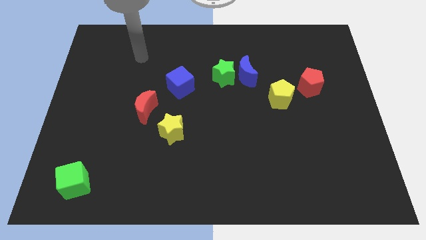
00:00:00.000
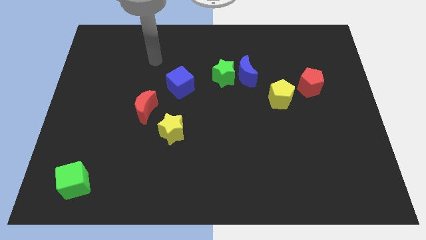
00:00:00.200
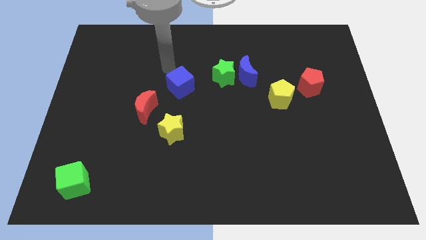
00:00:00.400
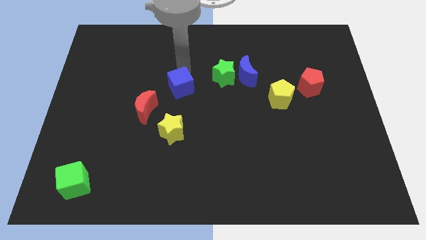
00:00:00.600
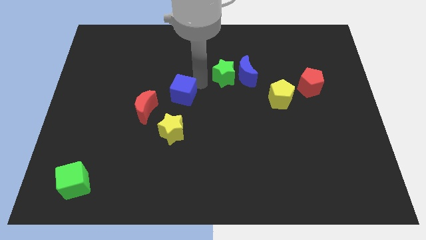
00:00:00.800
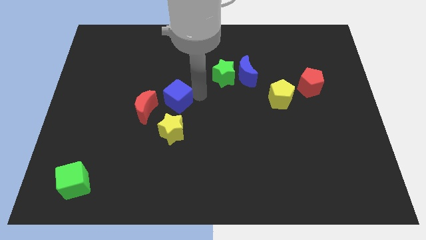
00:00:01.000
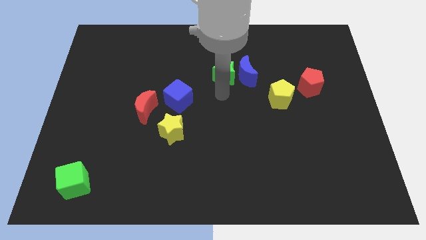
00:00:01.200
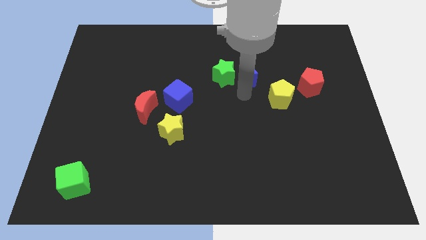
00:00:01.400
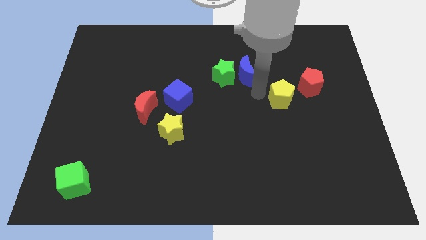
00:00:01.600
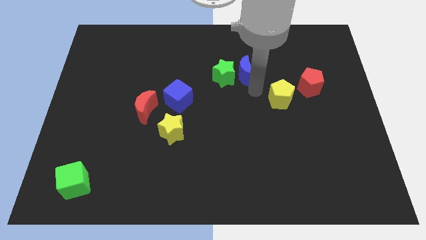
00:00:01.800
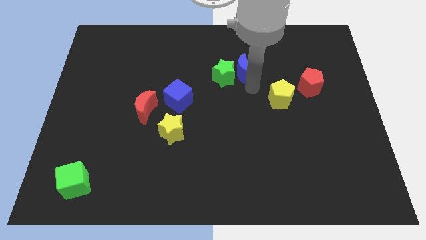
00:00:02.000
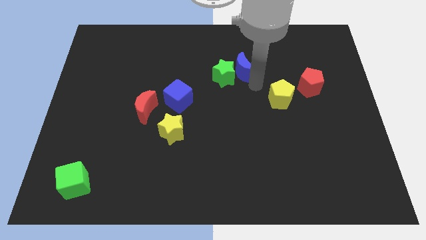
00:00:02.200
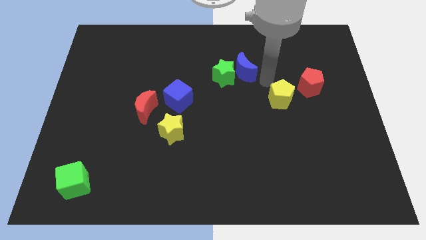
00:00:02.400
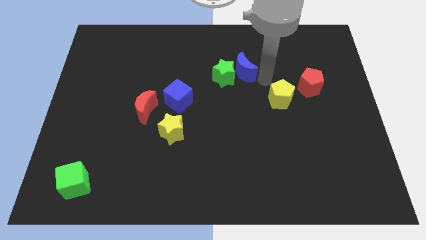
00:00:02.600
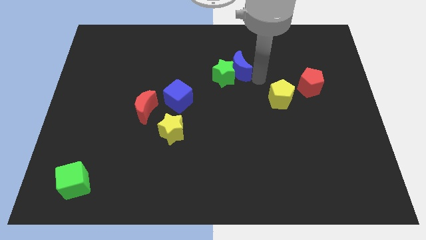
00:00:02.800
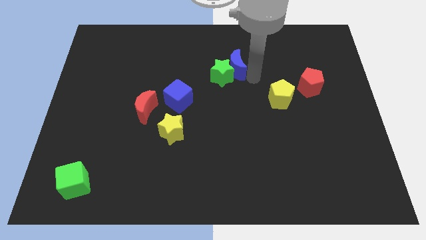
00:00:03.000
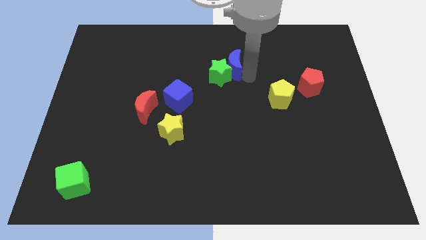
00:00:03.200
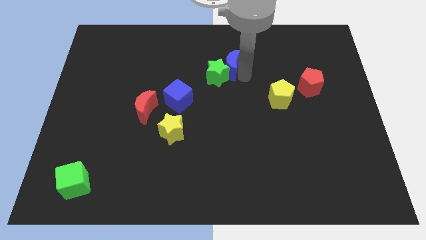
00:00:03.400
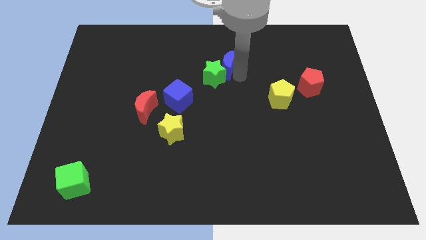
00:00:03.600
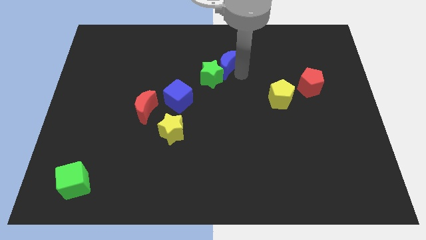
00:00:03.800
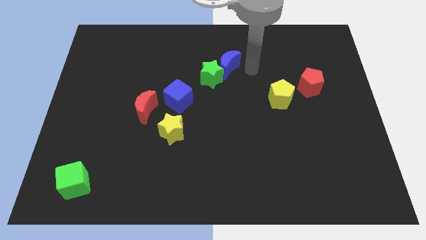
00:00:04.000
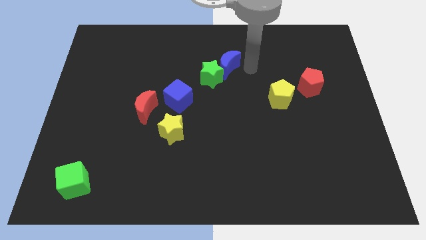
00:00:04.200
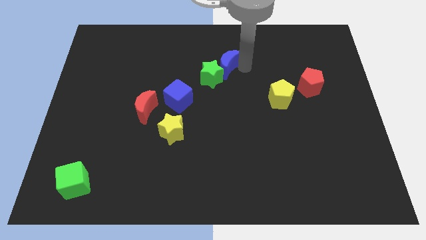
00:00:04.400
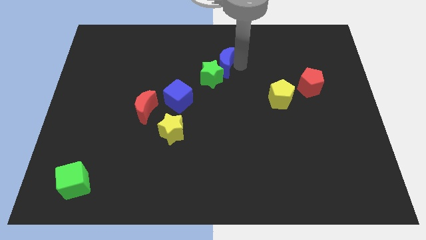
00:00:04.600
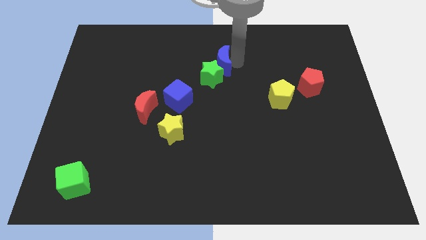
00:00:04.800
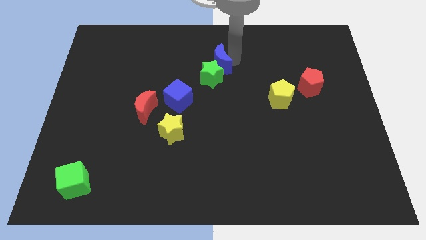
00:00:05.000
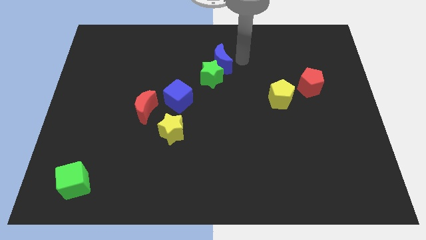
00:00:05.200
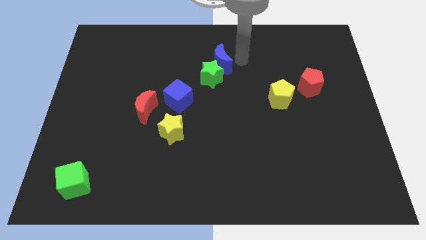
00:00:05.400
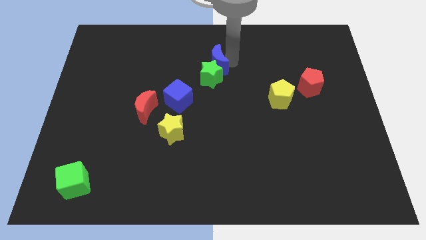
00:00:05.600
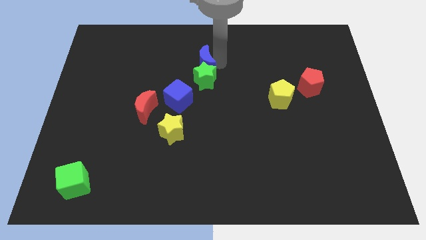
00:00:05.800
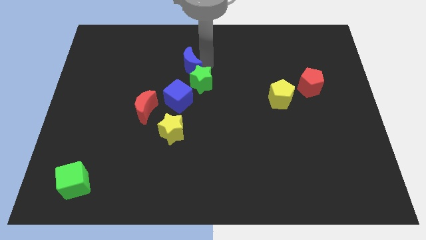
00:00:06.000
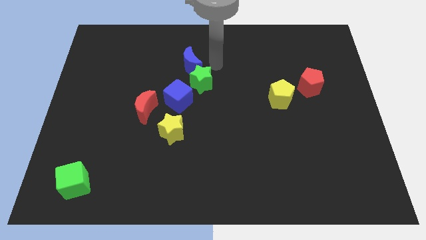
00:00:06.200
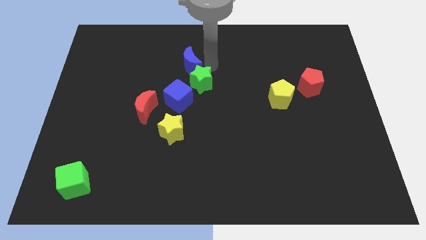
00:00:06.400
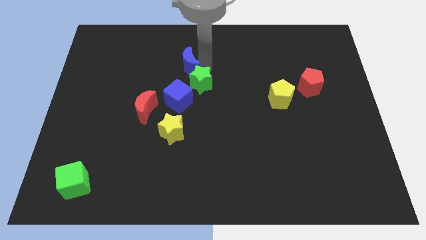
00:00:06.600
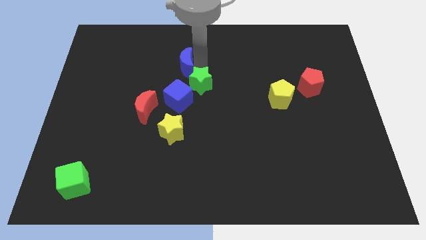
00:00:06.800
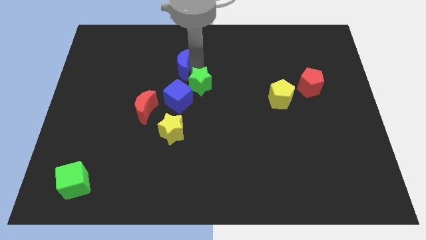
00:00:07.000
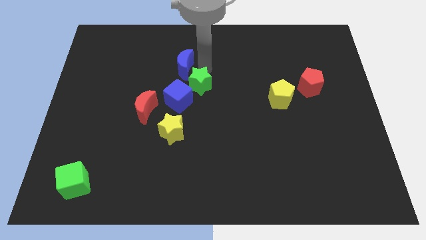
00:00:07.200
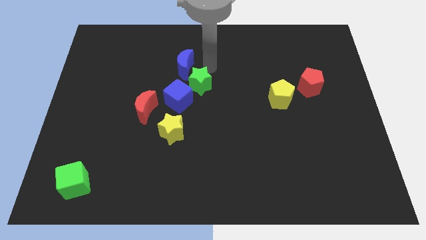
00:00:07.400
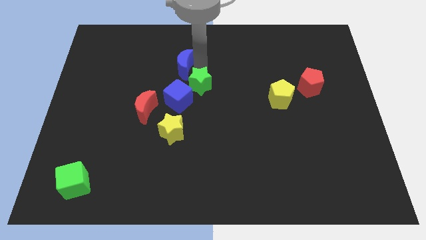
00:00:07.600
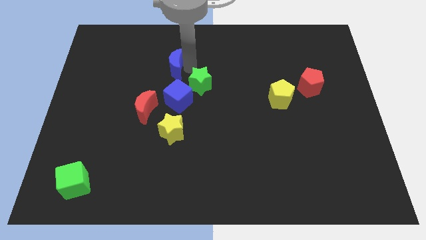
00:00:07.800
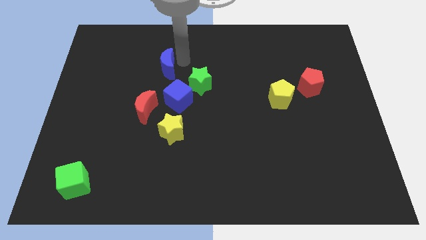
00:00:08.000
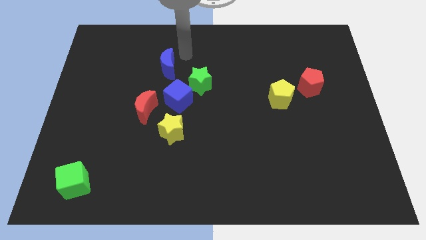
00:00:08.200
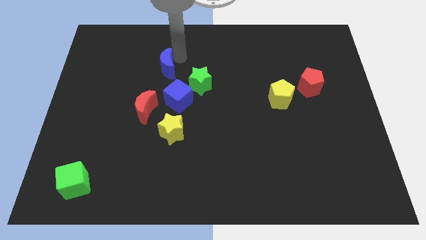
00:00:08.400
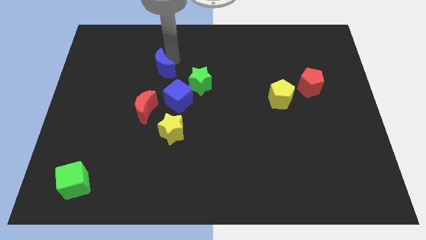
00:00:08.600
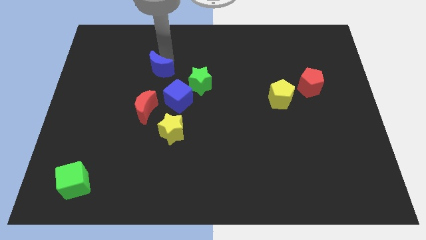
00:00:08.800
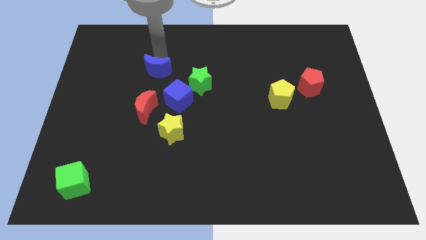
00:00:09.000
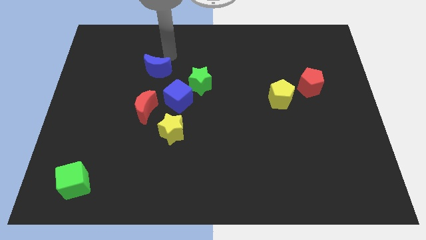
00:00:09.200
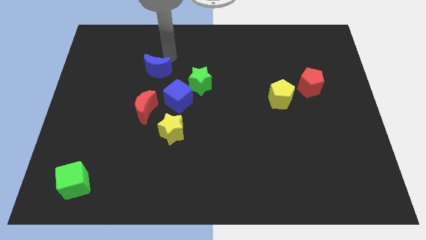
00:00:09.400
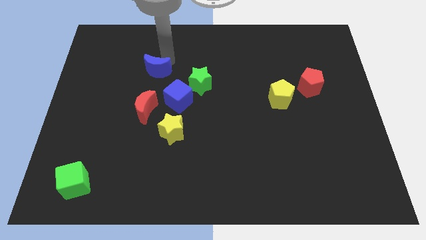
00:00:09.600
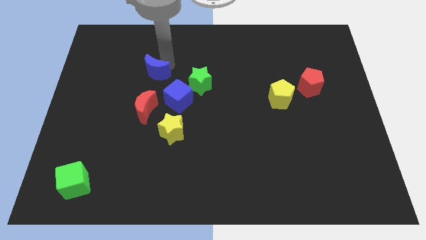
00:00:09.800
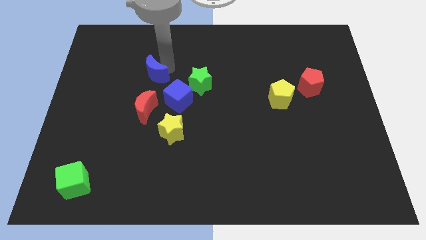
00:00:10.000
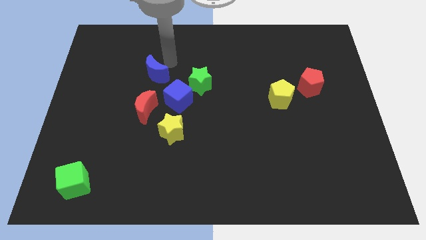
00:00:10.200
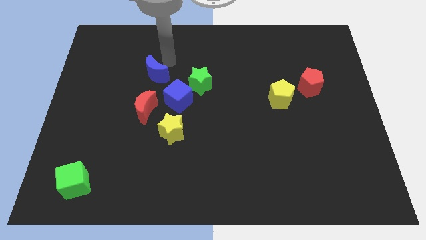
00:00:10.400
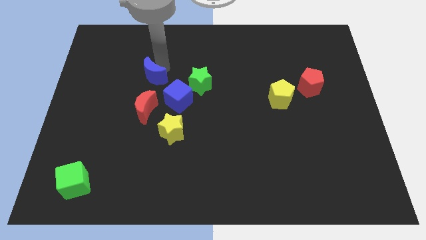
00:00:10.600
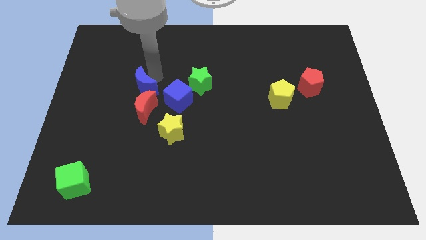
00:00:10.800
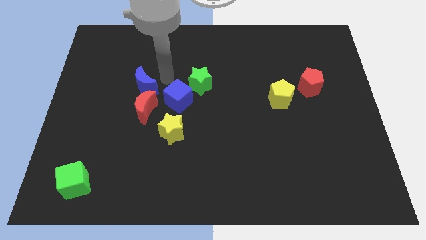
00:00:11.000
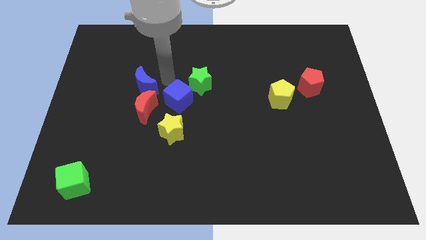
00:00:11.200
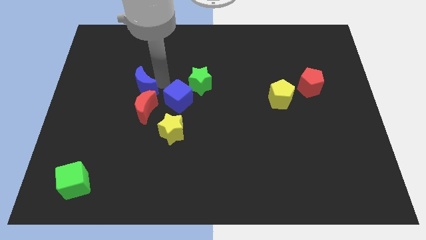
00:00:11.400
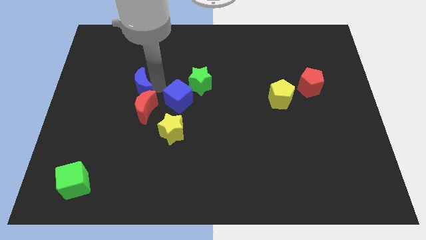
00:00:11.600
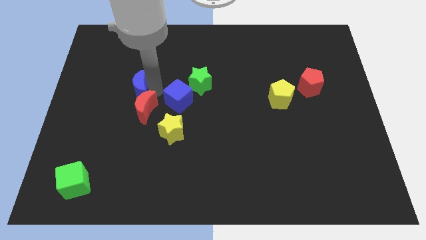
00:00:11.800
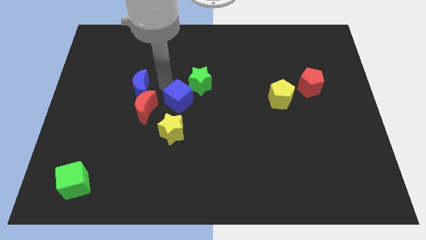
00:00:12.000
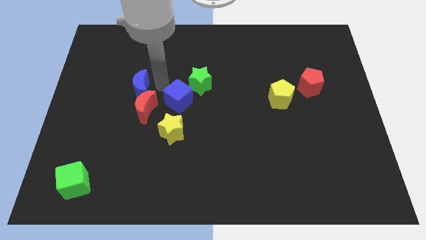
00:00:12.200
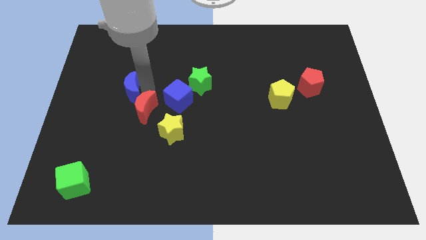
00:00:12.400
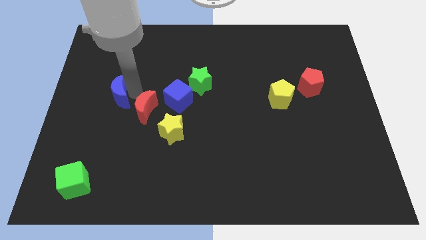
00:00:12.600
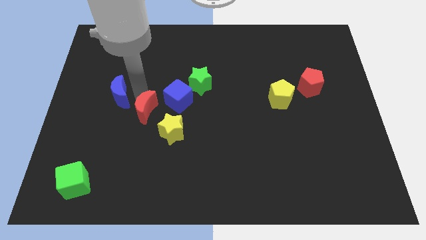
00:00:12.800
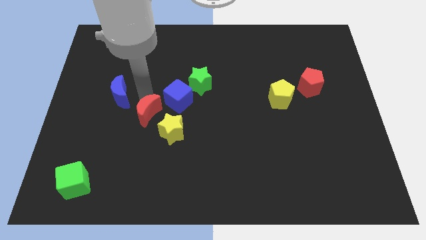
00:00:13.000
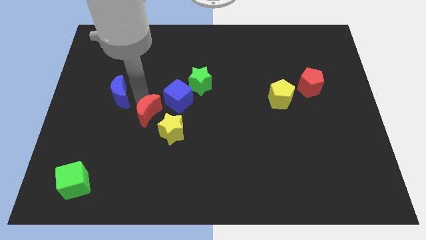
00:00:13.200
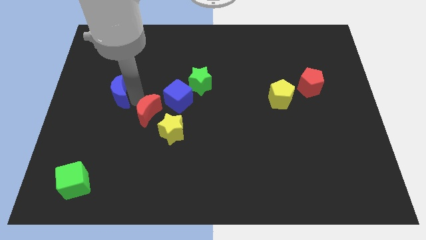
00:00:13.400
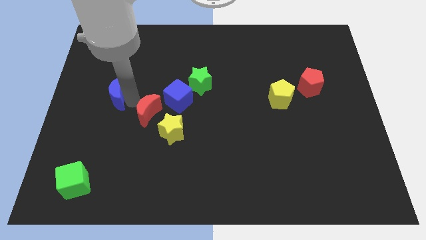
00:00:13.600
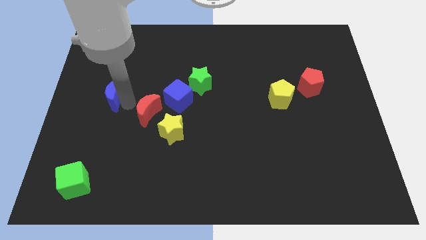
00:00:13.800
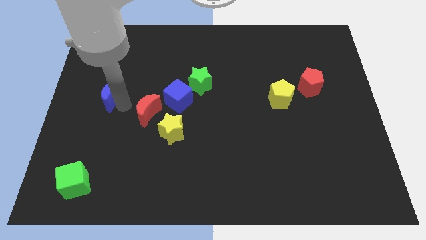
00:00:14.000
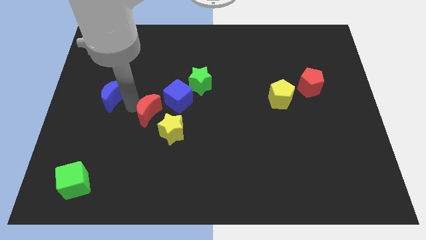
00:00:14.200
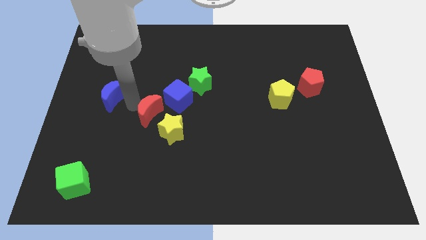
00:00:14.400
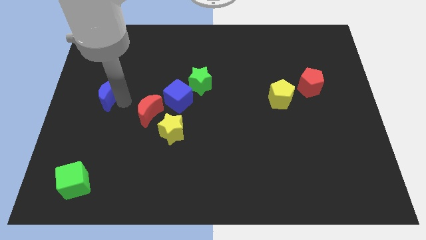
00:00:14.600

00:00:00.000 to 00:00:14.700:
put the blue moon to the left side
